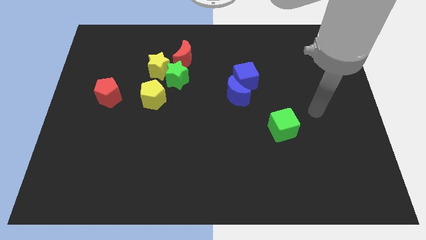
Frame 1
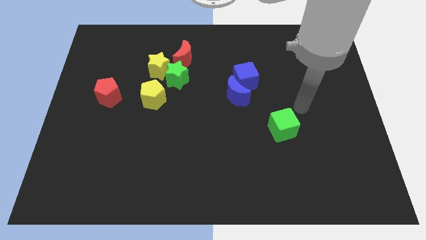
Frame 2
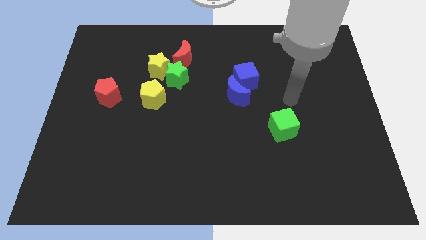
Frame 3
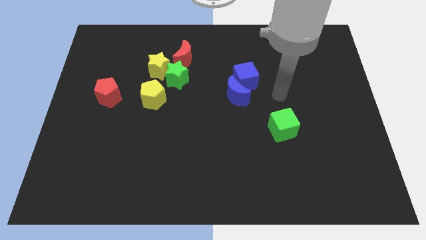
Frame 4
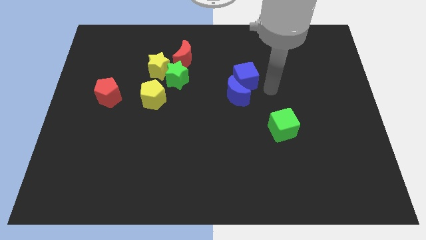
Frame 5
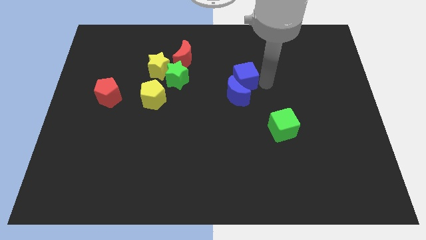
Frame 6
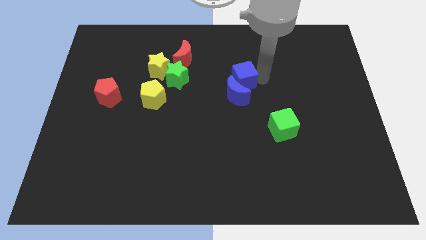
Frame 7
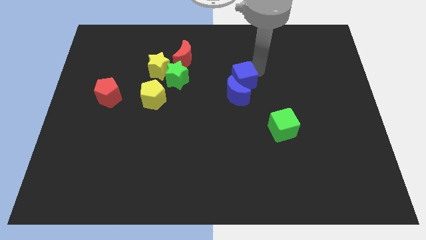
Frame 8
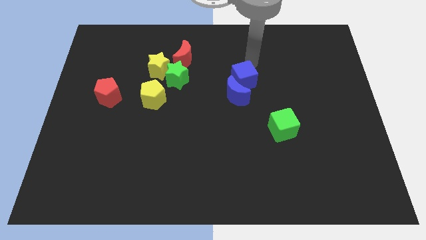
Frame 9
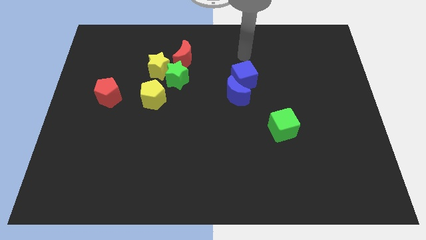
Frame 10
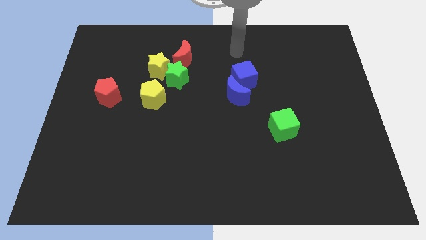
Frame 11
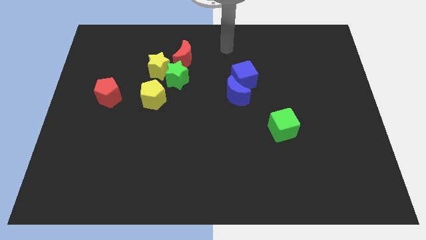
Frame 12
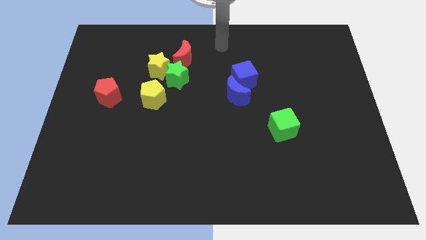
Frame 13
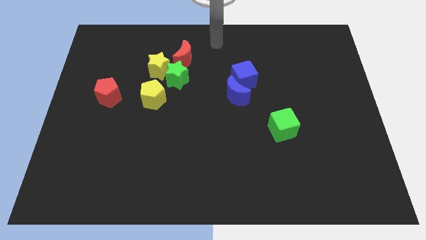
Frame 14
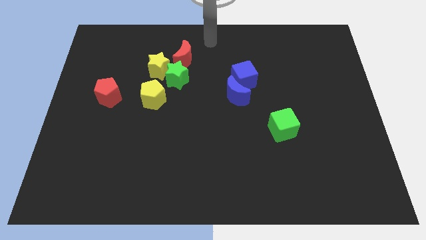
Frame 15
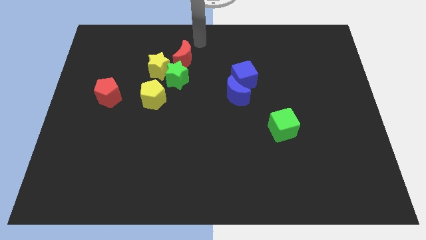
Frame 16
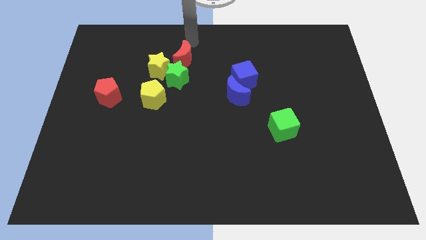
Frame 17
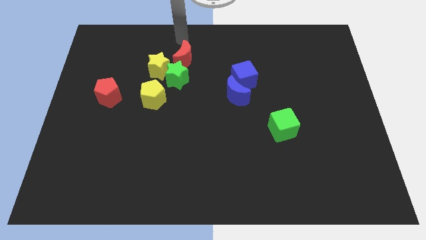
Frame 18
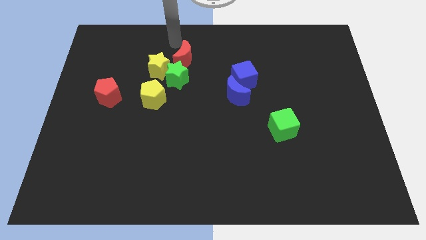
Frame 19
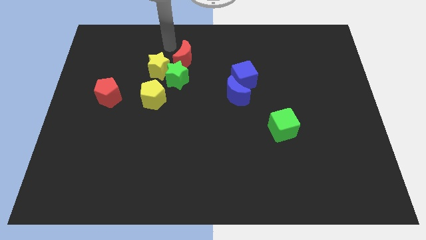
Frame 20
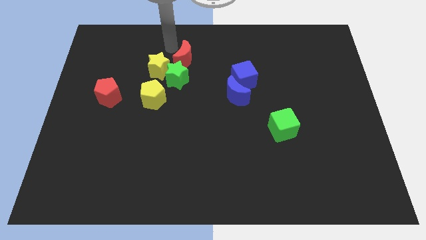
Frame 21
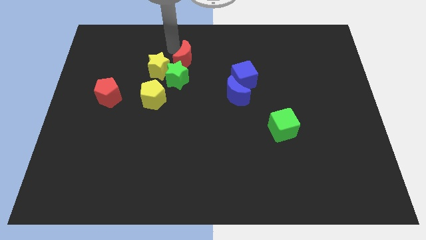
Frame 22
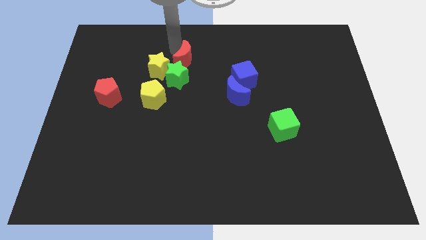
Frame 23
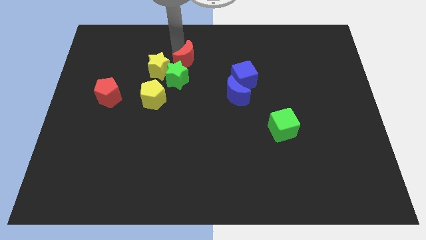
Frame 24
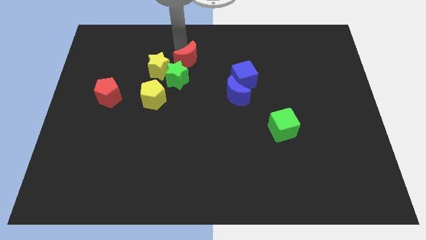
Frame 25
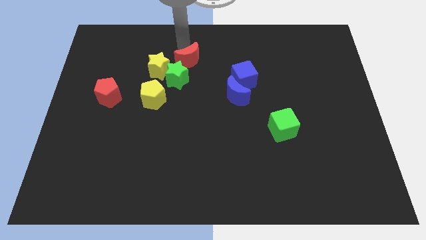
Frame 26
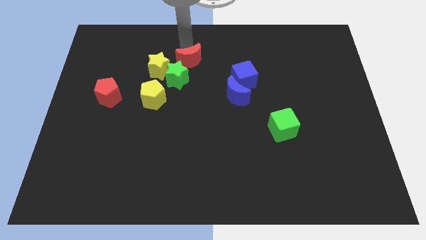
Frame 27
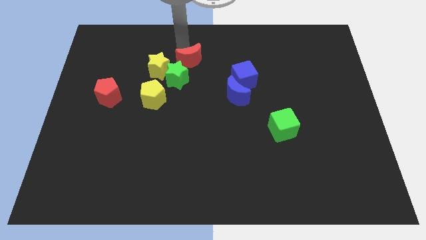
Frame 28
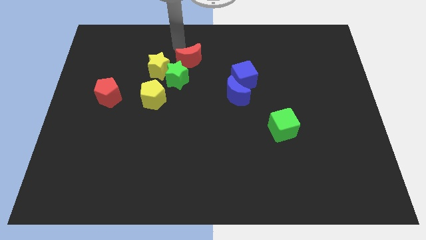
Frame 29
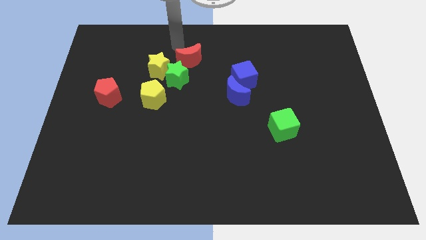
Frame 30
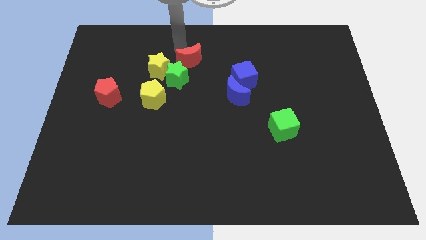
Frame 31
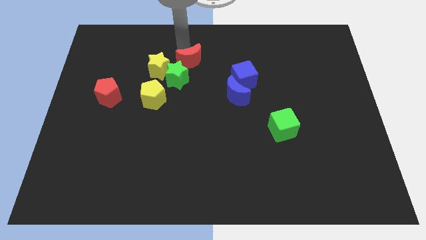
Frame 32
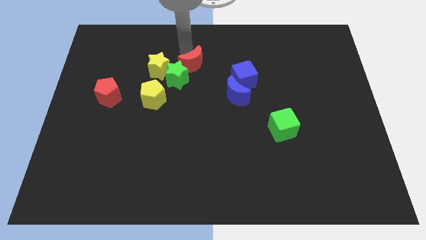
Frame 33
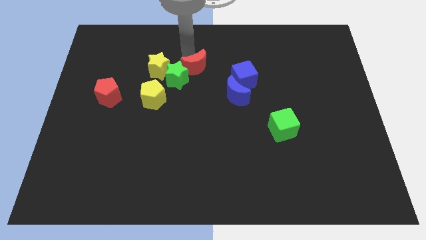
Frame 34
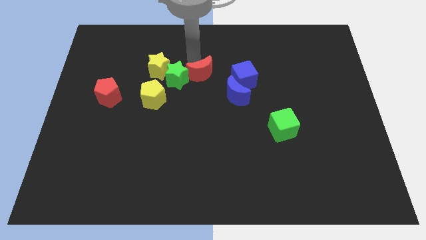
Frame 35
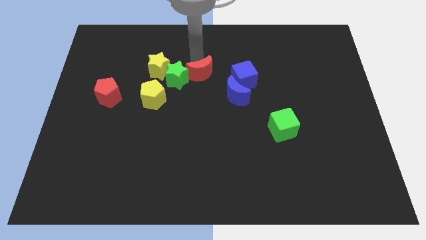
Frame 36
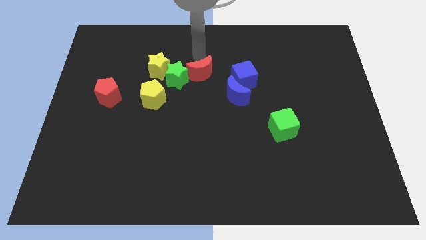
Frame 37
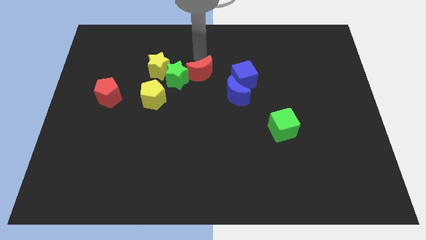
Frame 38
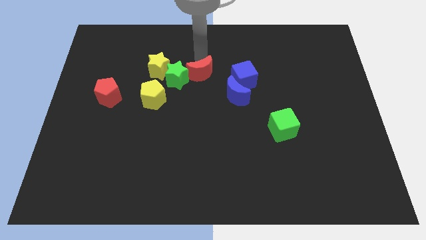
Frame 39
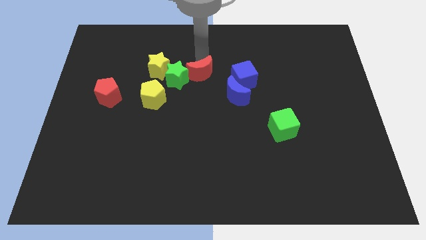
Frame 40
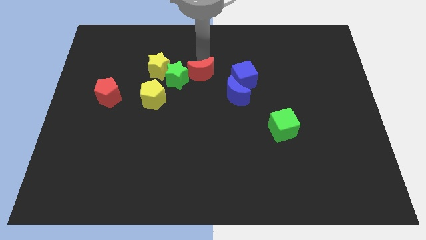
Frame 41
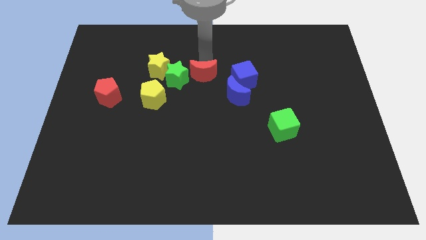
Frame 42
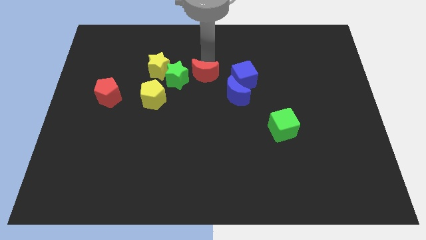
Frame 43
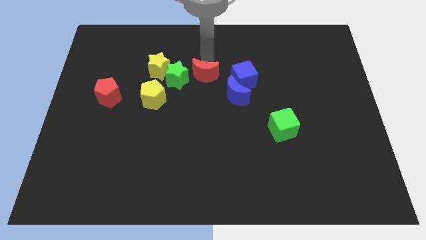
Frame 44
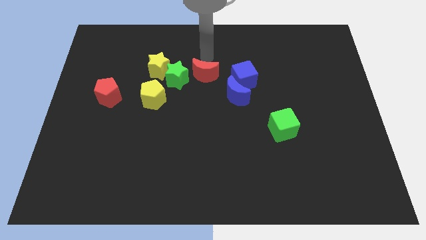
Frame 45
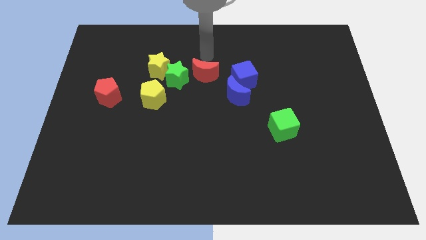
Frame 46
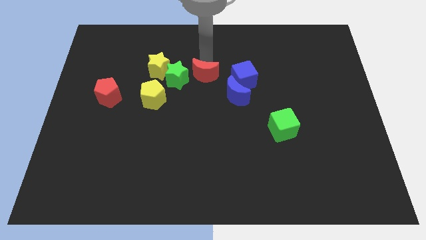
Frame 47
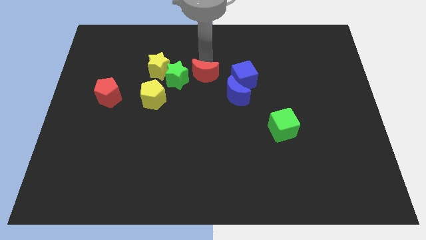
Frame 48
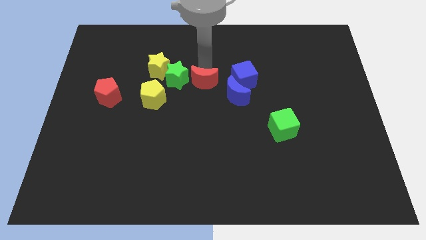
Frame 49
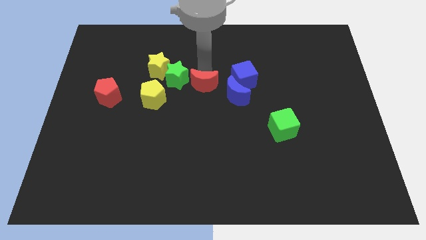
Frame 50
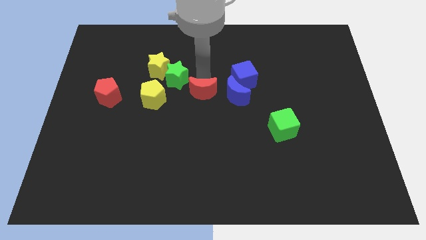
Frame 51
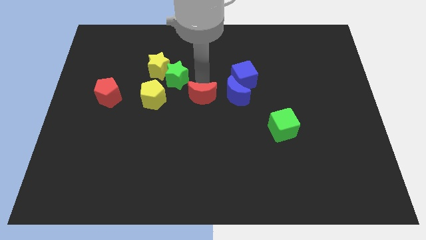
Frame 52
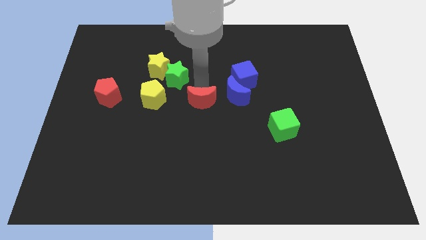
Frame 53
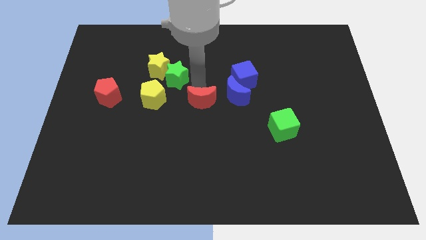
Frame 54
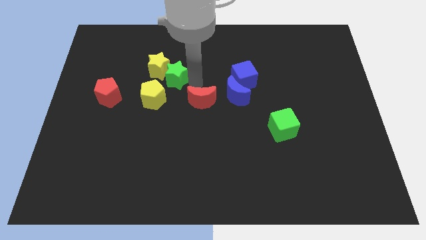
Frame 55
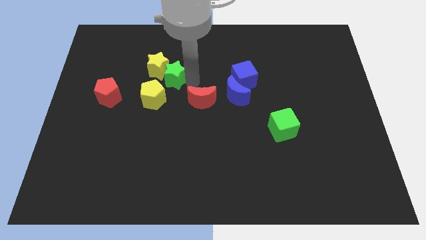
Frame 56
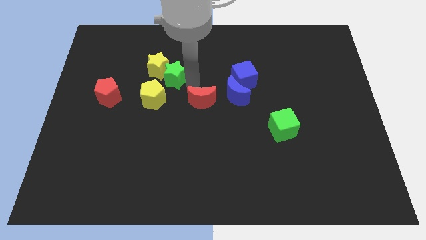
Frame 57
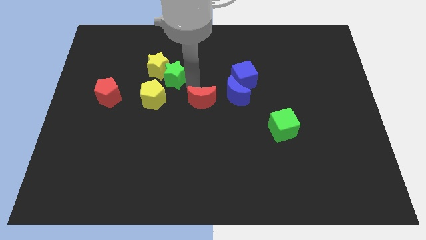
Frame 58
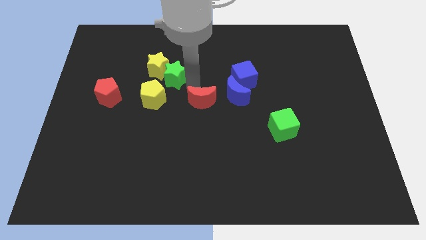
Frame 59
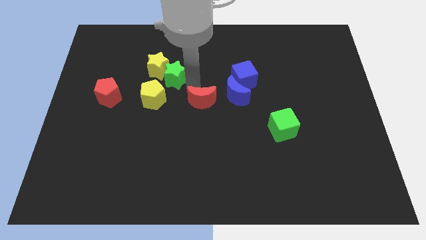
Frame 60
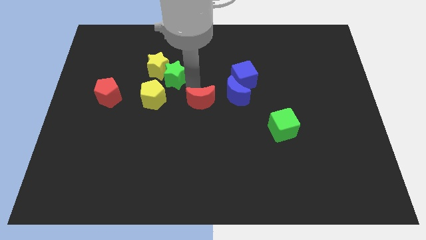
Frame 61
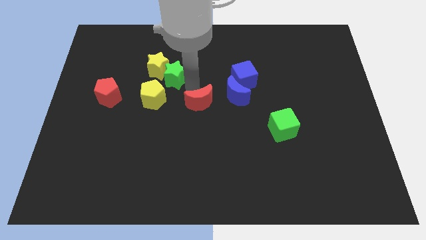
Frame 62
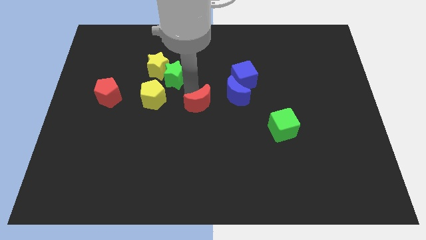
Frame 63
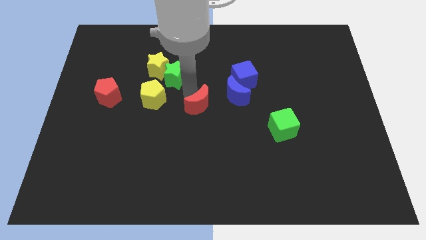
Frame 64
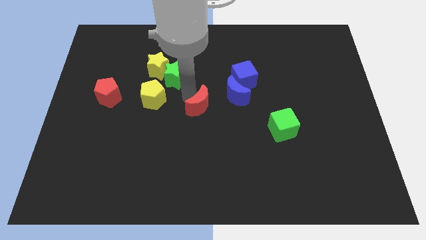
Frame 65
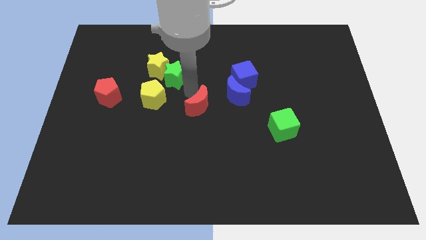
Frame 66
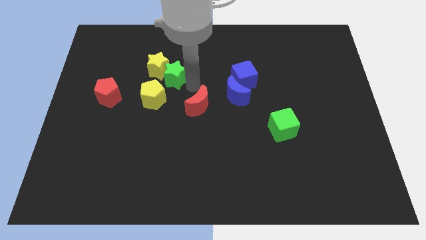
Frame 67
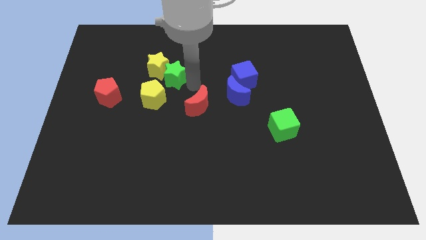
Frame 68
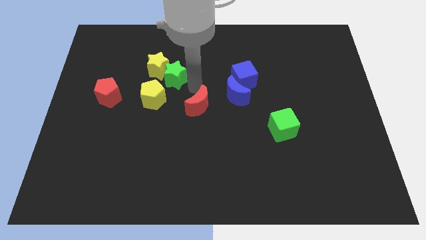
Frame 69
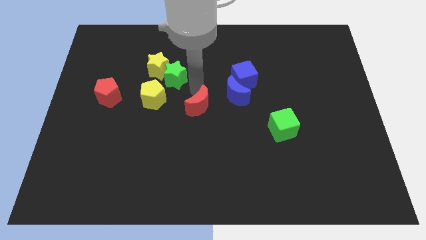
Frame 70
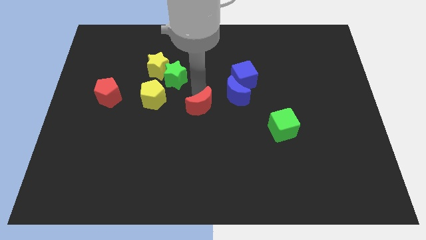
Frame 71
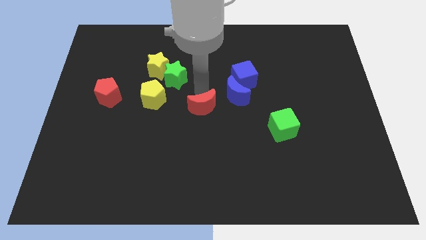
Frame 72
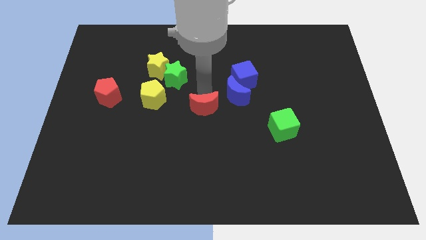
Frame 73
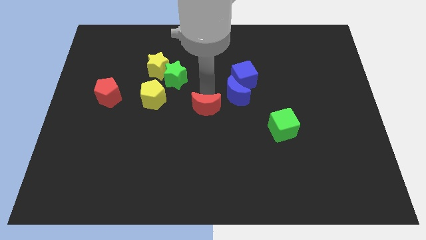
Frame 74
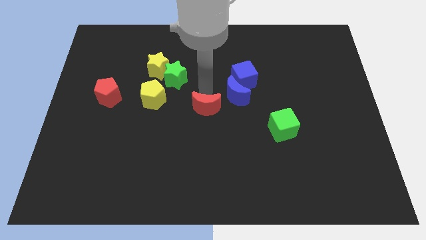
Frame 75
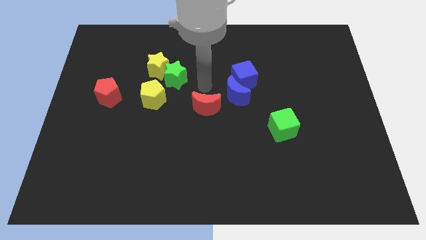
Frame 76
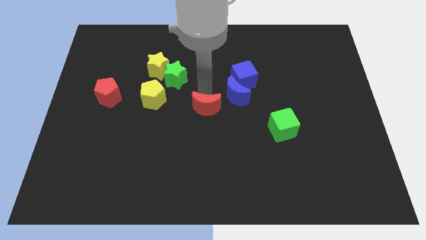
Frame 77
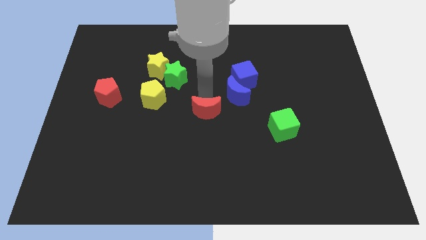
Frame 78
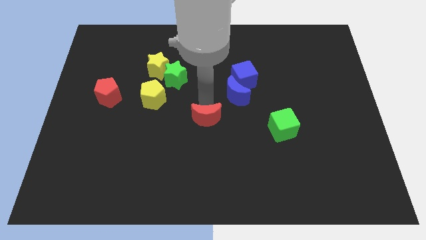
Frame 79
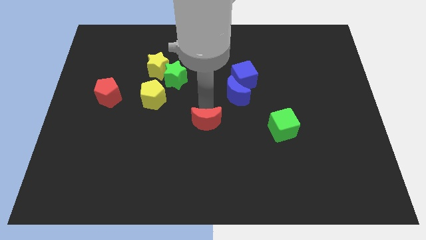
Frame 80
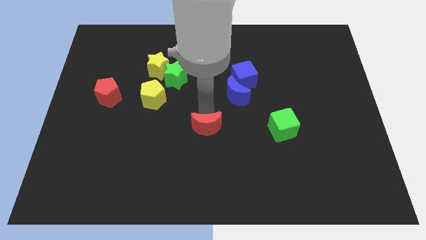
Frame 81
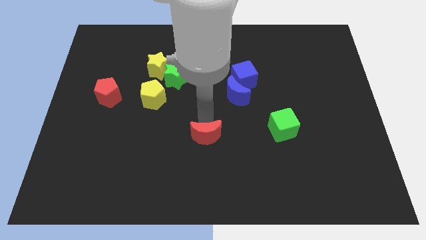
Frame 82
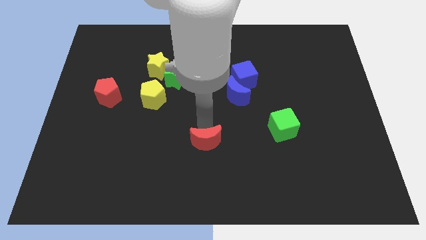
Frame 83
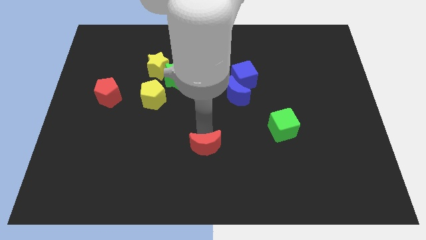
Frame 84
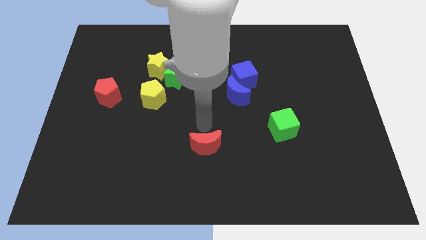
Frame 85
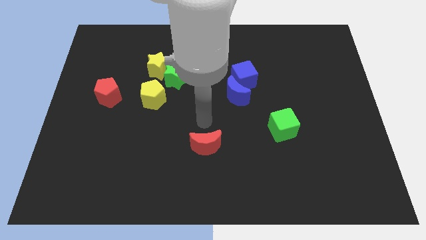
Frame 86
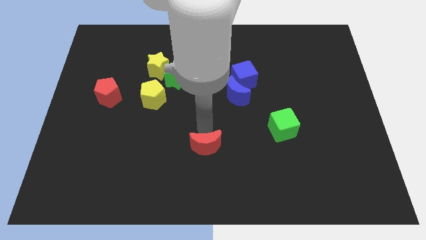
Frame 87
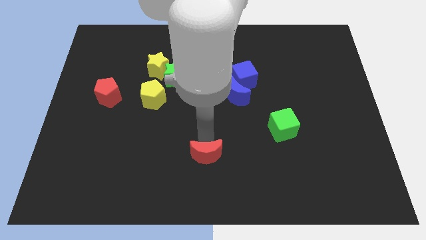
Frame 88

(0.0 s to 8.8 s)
slide the red moon to the bottom
